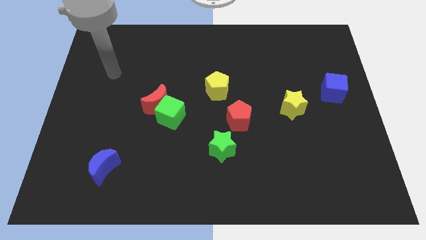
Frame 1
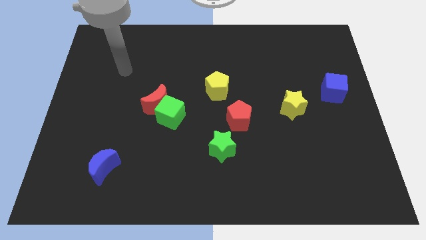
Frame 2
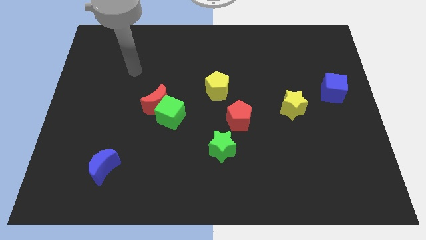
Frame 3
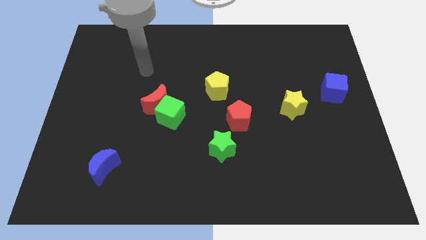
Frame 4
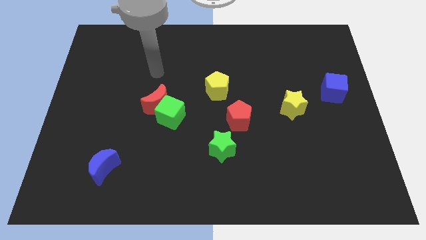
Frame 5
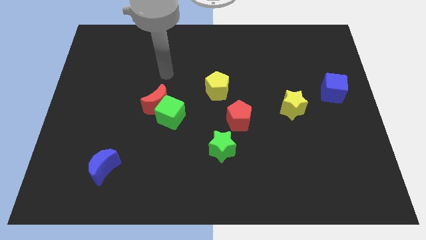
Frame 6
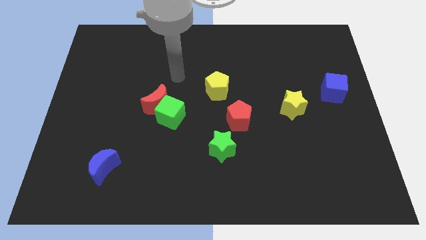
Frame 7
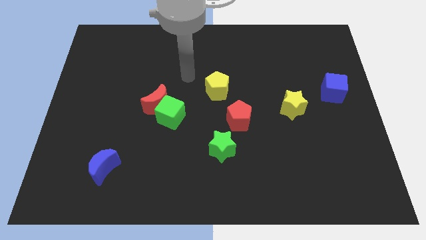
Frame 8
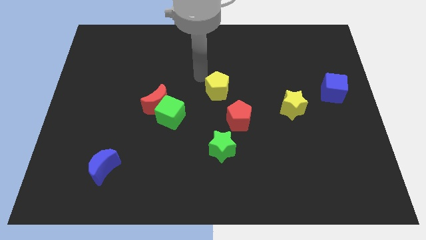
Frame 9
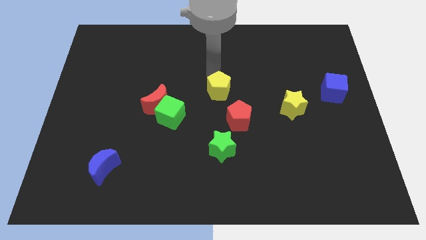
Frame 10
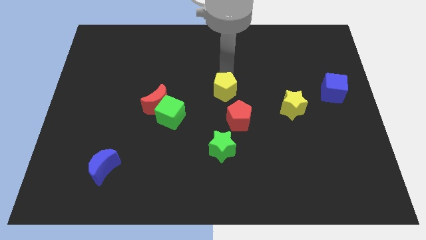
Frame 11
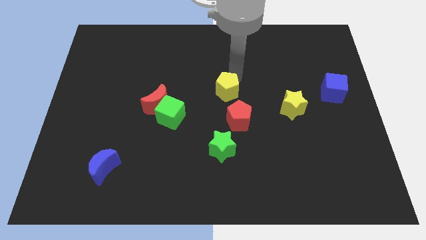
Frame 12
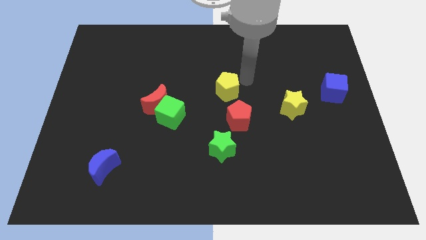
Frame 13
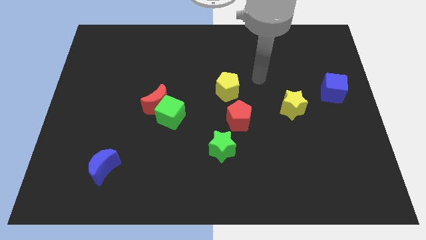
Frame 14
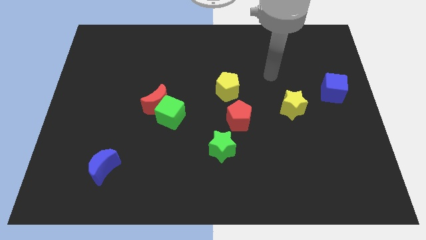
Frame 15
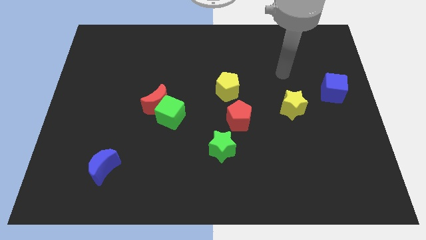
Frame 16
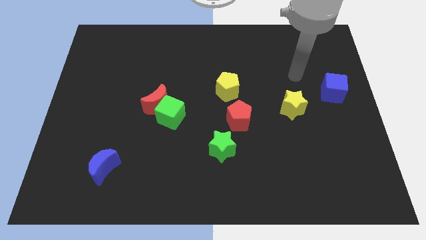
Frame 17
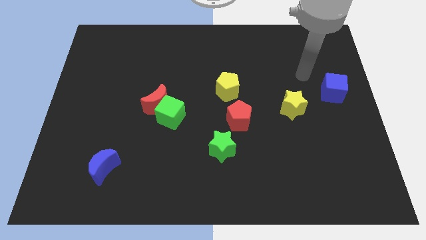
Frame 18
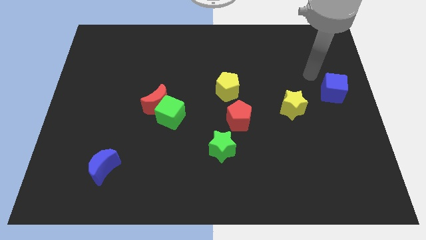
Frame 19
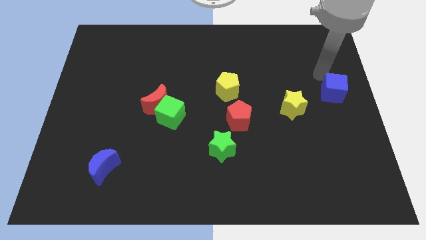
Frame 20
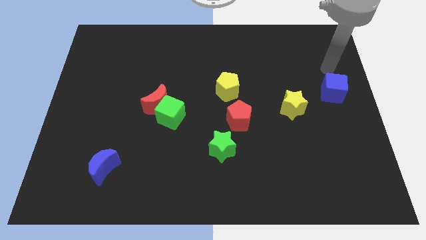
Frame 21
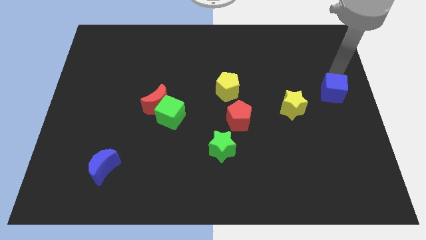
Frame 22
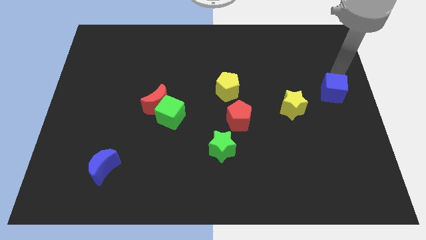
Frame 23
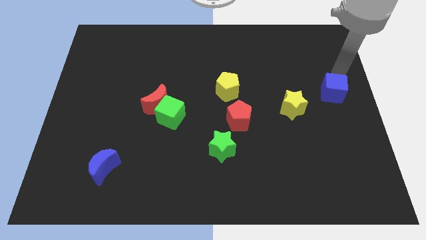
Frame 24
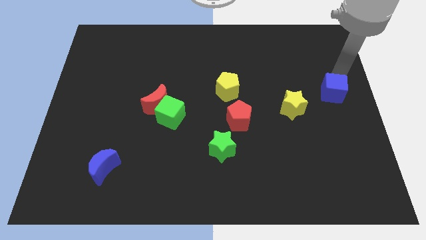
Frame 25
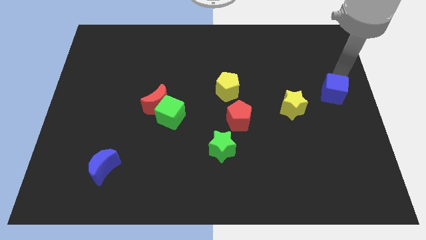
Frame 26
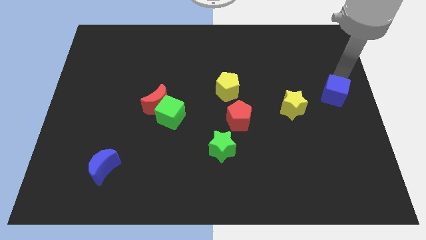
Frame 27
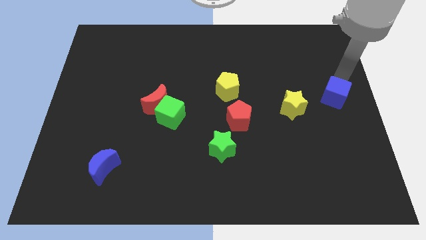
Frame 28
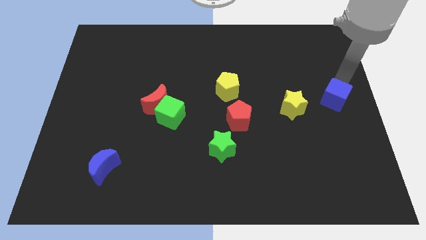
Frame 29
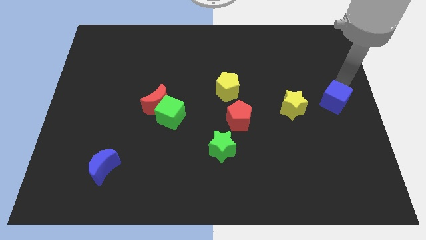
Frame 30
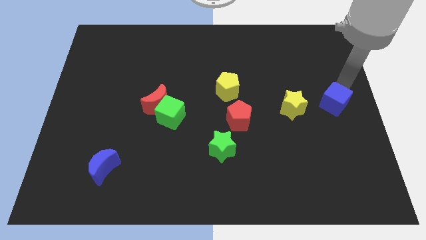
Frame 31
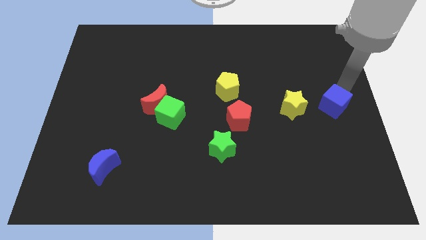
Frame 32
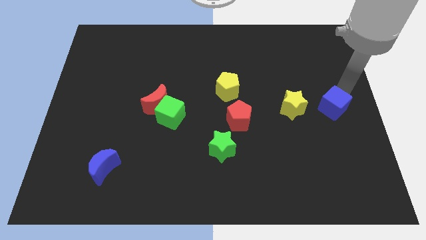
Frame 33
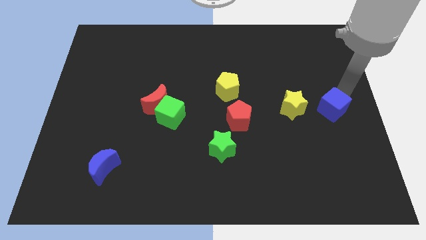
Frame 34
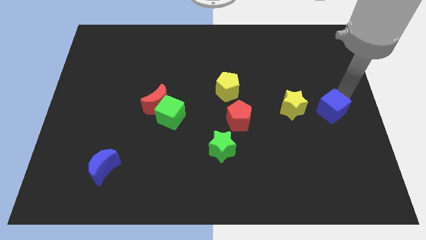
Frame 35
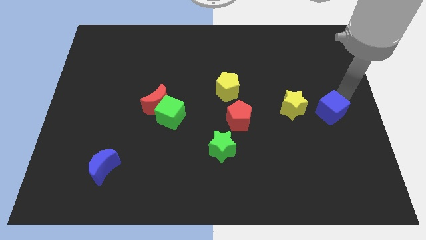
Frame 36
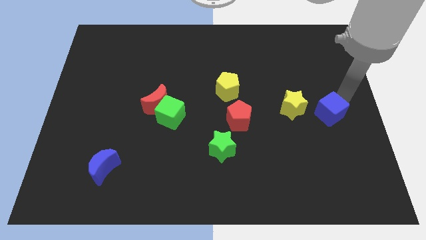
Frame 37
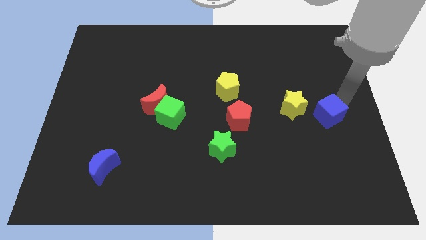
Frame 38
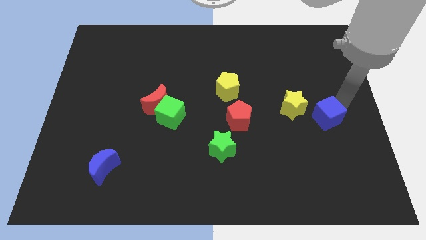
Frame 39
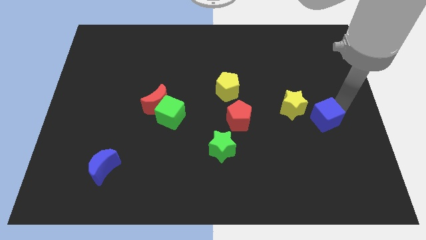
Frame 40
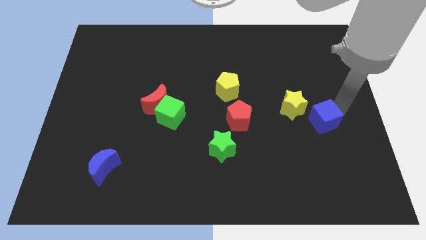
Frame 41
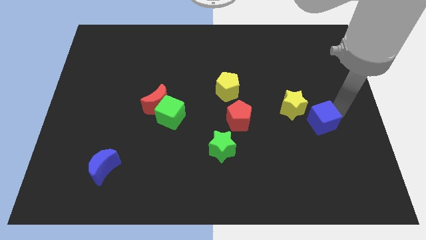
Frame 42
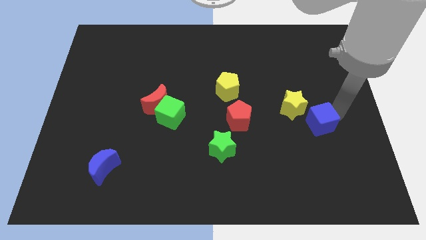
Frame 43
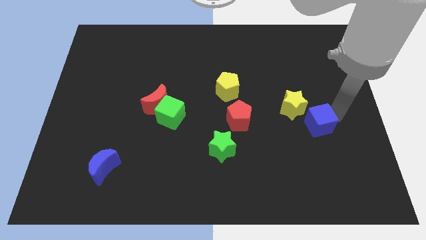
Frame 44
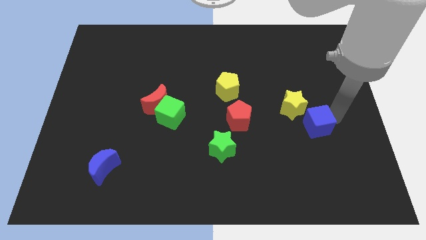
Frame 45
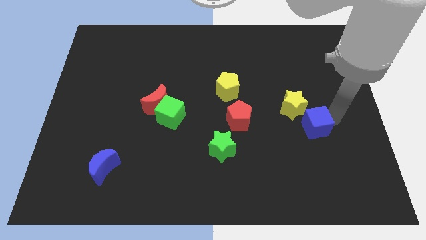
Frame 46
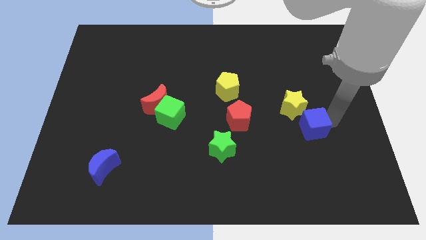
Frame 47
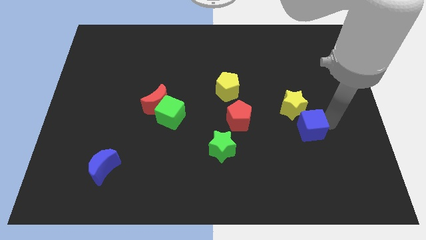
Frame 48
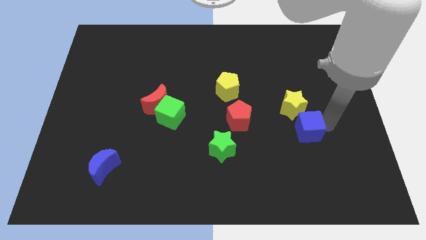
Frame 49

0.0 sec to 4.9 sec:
put the blue cube right of the red pentagon

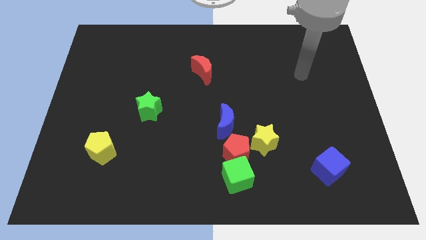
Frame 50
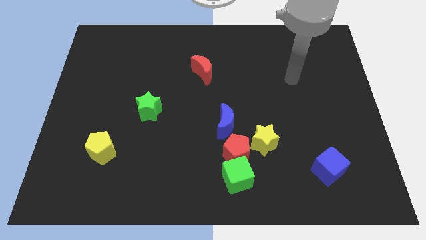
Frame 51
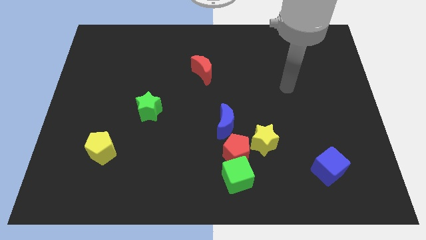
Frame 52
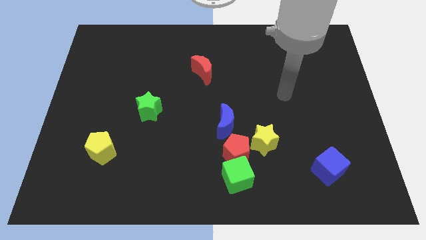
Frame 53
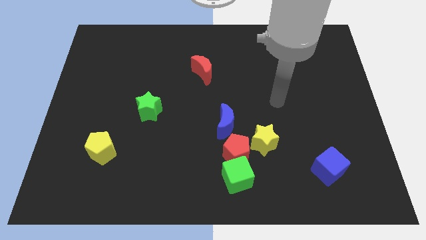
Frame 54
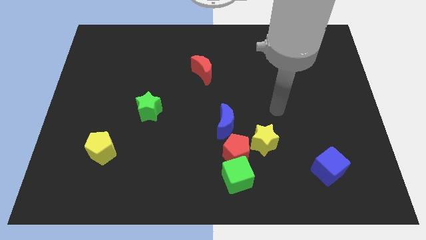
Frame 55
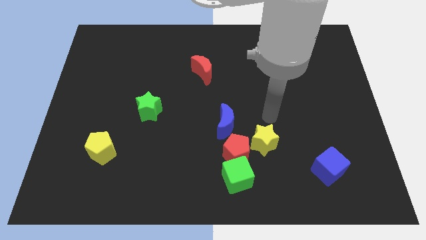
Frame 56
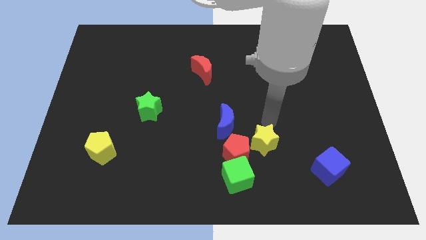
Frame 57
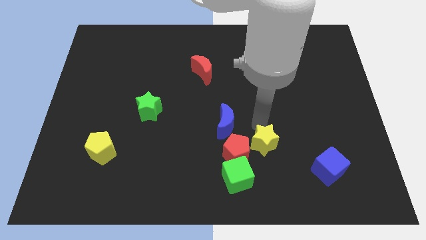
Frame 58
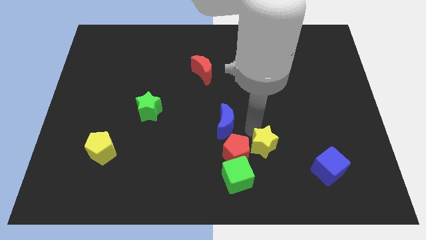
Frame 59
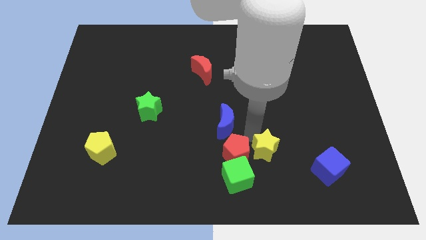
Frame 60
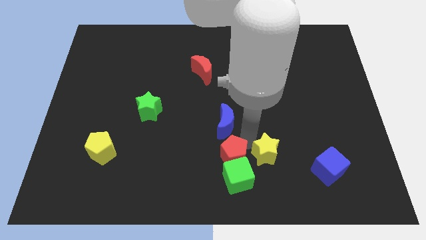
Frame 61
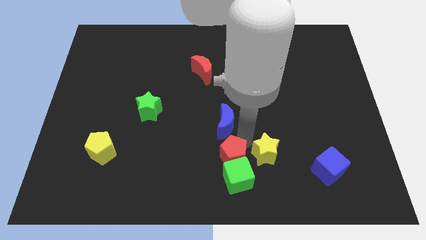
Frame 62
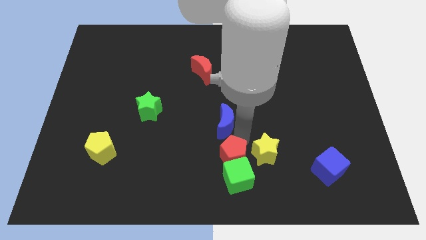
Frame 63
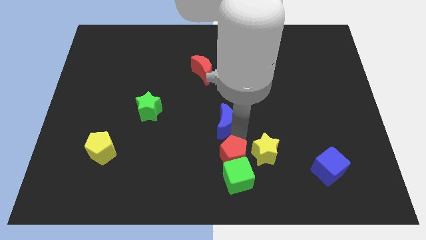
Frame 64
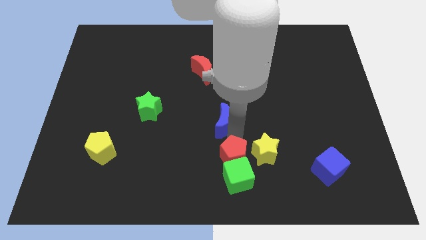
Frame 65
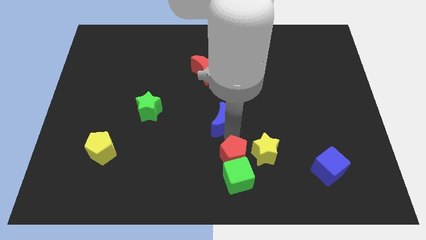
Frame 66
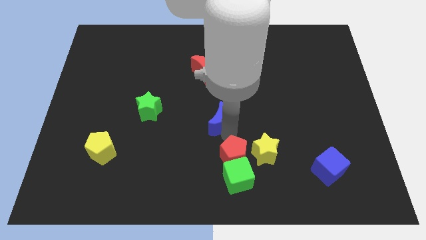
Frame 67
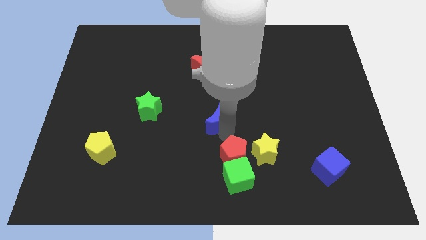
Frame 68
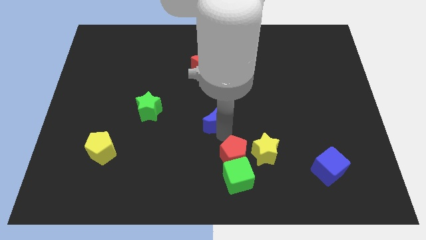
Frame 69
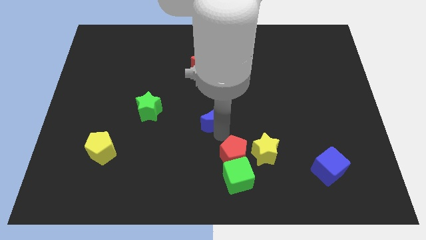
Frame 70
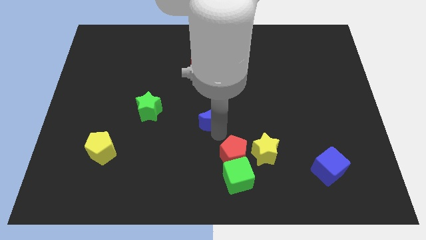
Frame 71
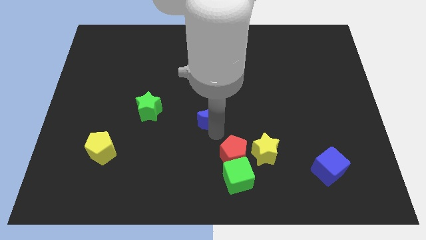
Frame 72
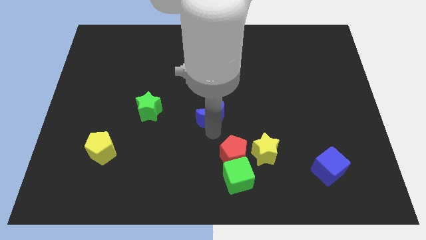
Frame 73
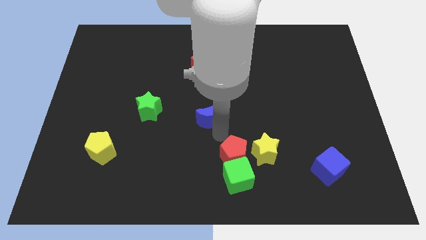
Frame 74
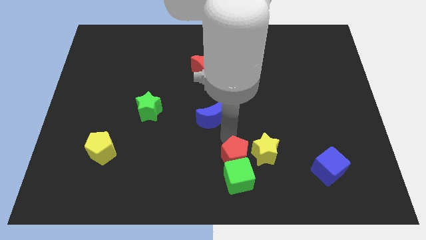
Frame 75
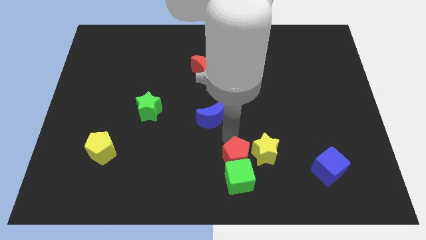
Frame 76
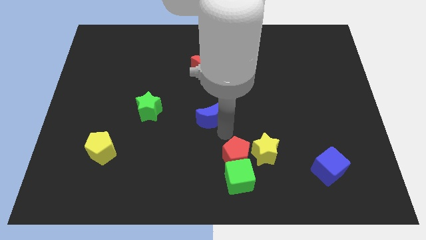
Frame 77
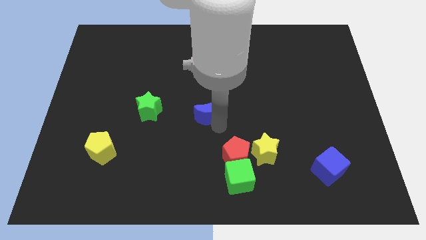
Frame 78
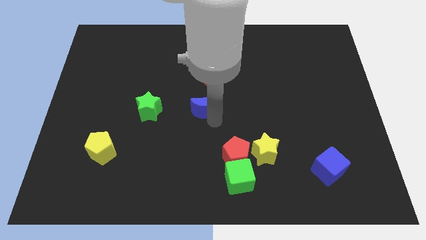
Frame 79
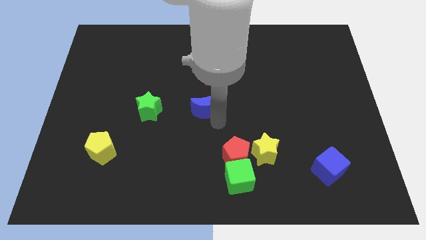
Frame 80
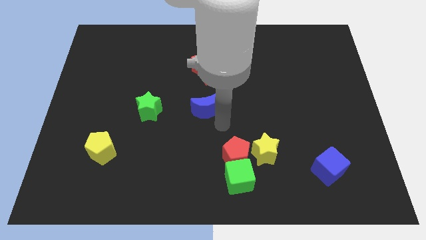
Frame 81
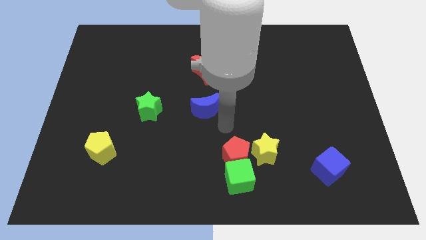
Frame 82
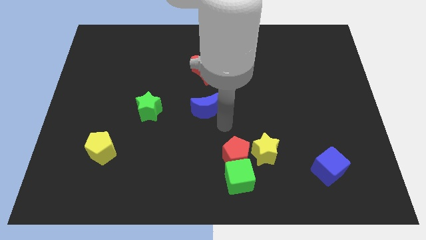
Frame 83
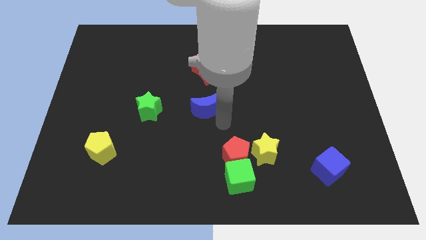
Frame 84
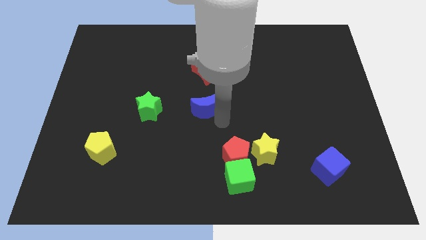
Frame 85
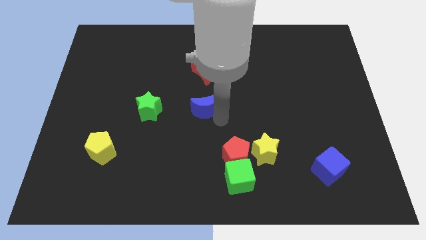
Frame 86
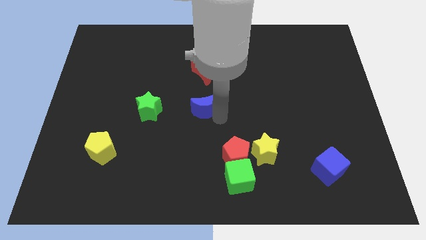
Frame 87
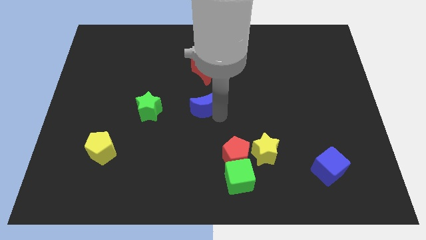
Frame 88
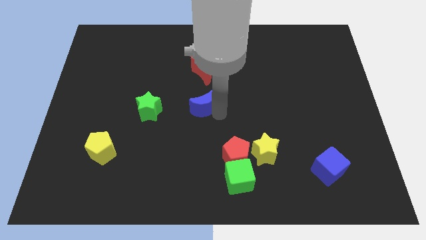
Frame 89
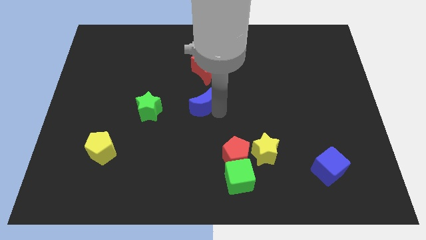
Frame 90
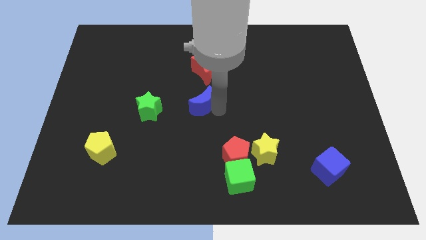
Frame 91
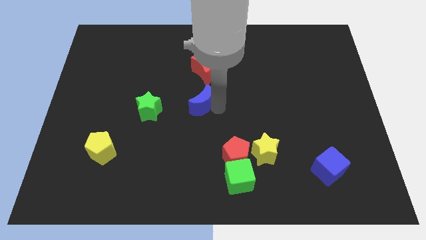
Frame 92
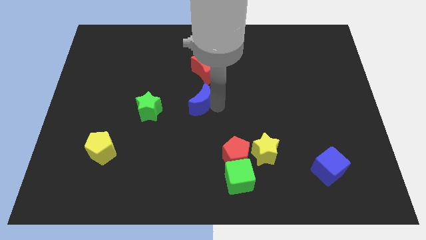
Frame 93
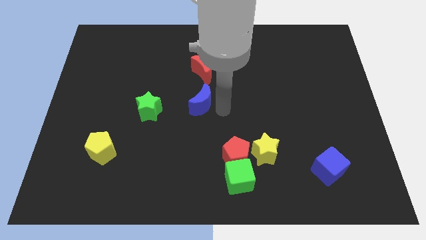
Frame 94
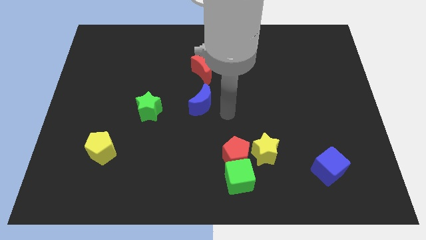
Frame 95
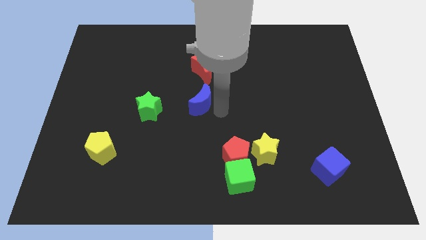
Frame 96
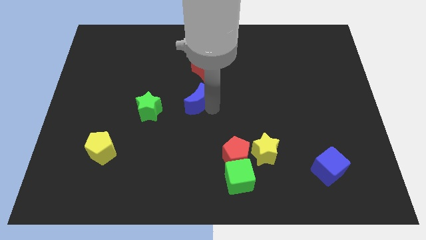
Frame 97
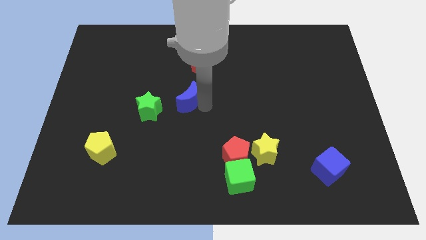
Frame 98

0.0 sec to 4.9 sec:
put the blue moon to the top right side of the green star
